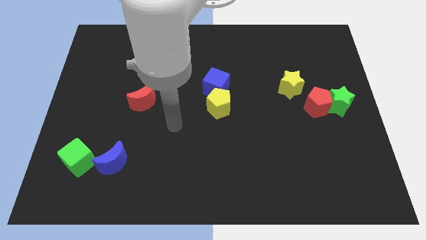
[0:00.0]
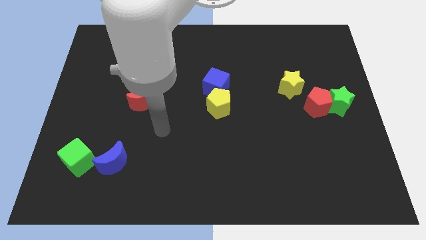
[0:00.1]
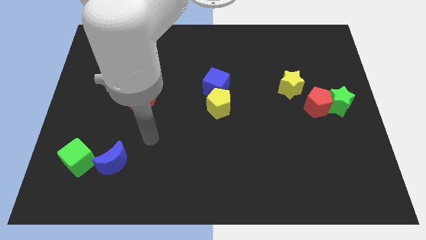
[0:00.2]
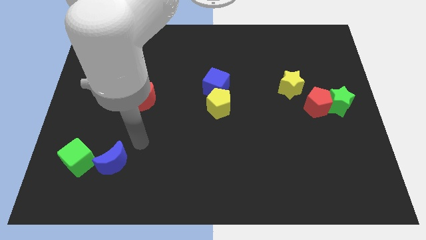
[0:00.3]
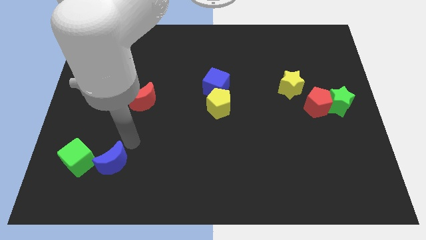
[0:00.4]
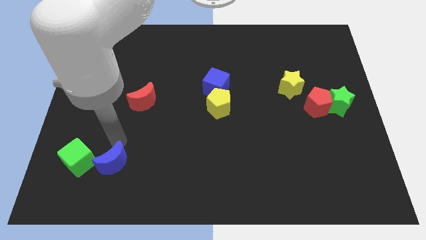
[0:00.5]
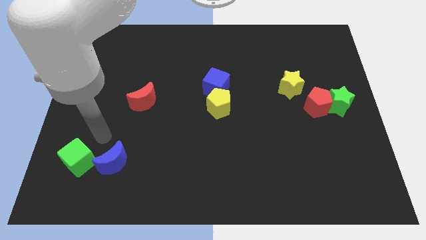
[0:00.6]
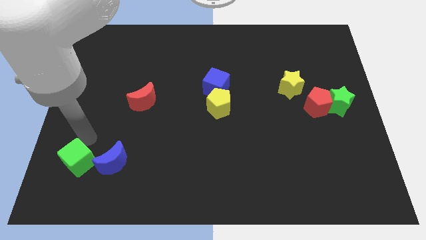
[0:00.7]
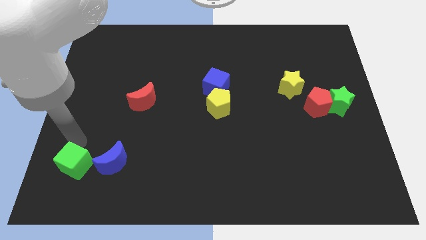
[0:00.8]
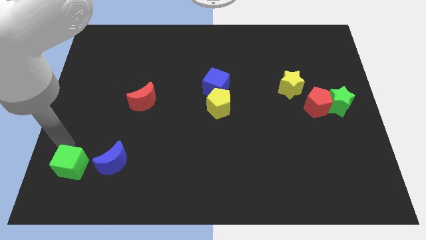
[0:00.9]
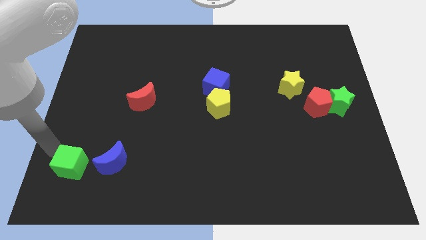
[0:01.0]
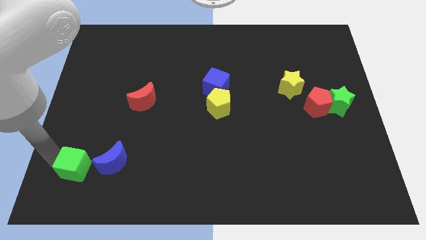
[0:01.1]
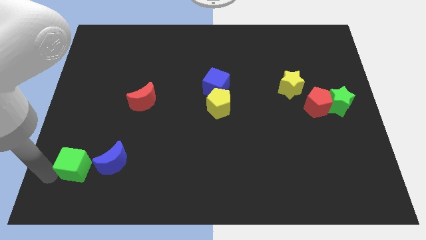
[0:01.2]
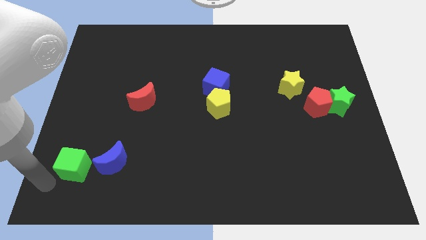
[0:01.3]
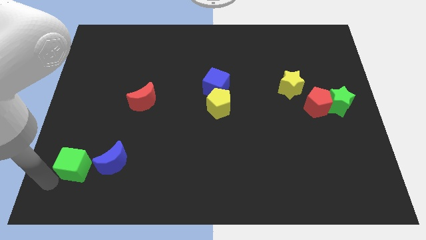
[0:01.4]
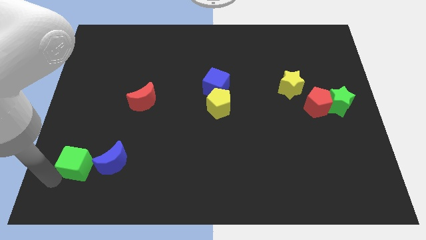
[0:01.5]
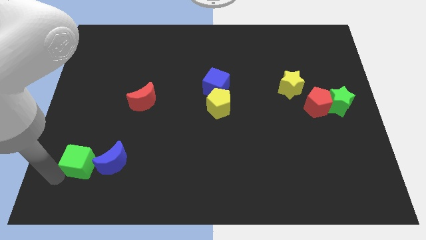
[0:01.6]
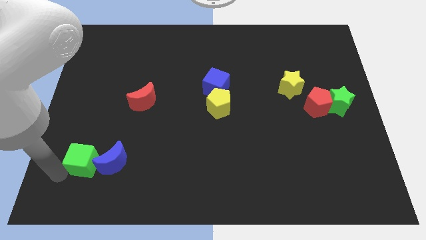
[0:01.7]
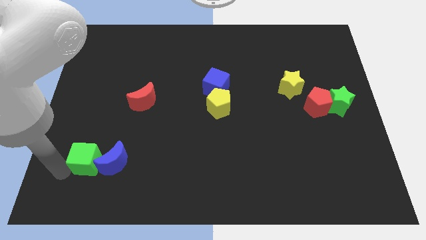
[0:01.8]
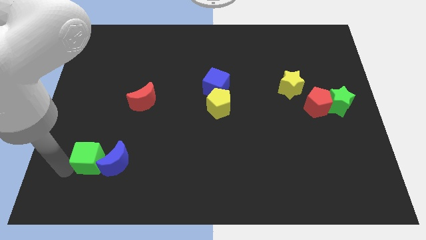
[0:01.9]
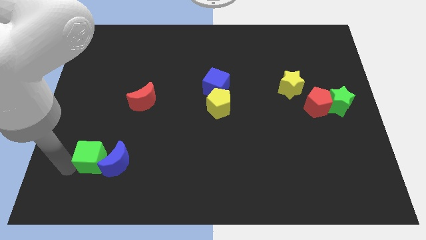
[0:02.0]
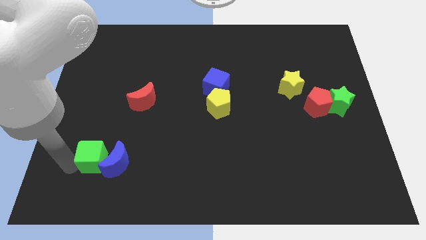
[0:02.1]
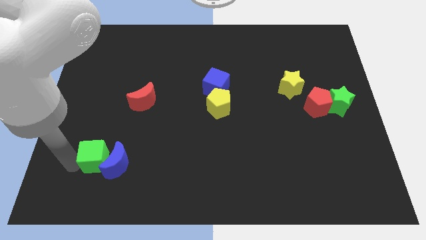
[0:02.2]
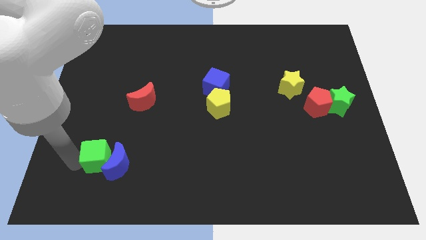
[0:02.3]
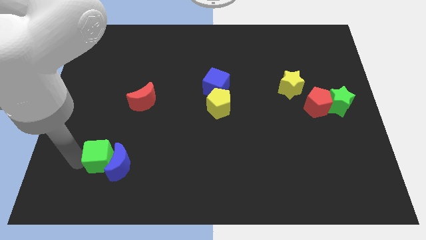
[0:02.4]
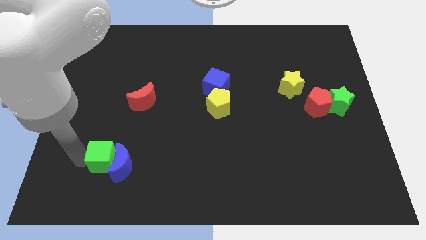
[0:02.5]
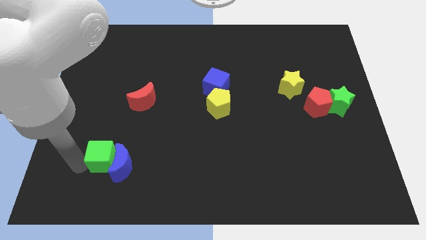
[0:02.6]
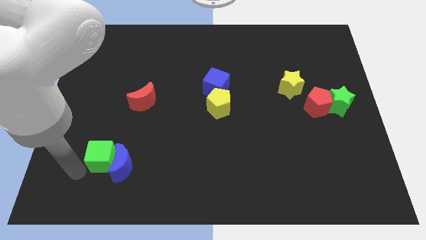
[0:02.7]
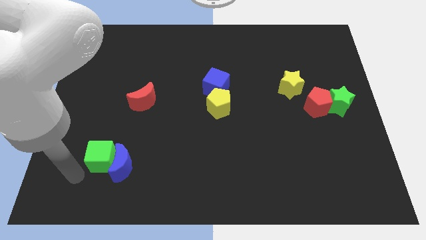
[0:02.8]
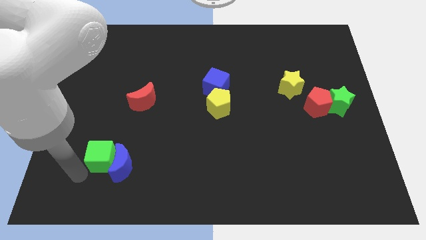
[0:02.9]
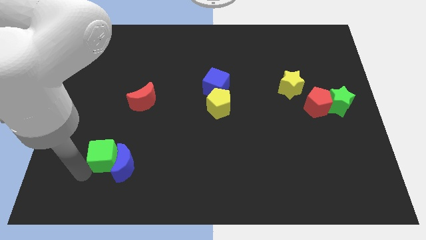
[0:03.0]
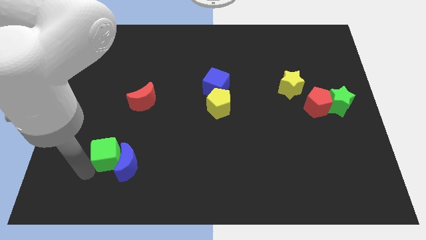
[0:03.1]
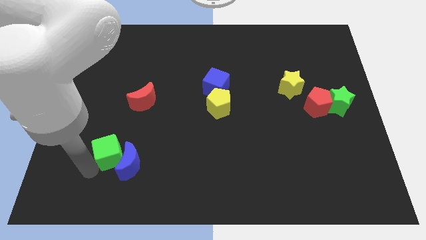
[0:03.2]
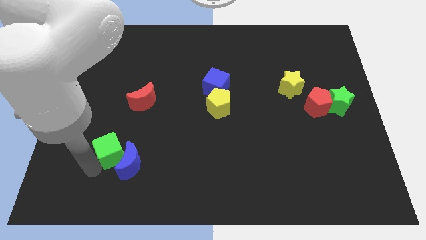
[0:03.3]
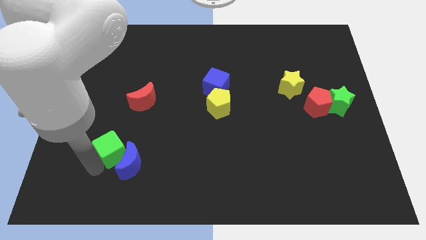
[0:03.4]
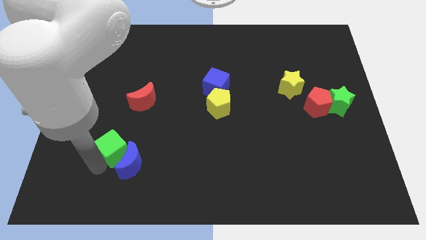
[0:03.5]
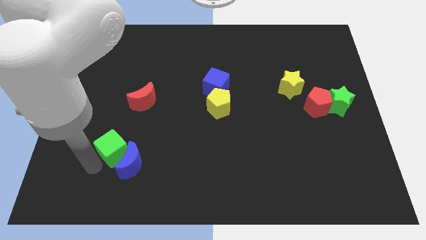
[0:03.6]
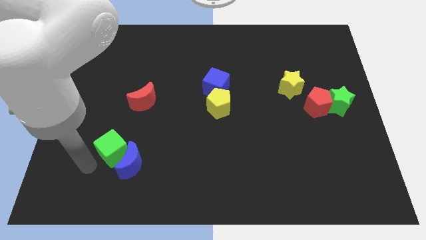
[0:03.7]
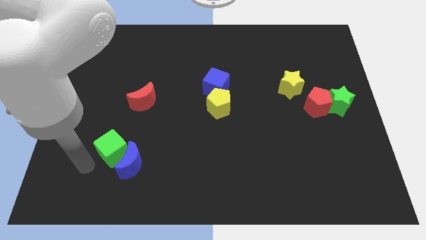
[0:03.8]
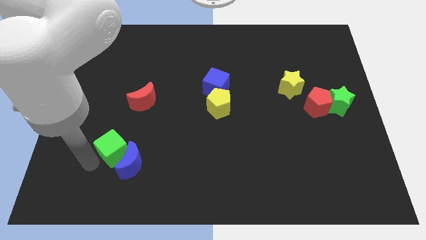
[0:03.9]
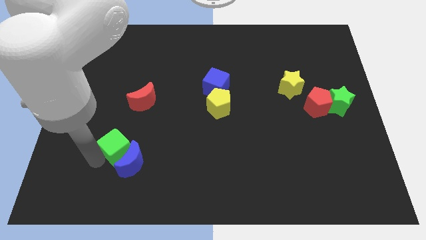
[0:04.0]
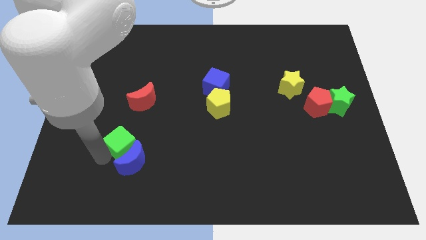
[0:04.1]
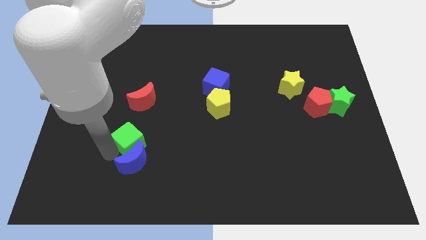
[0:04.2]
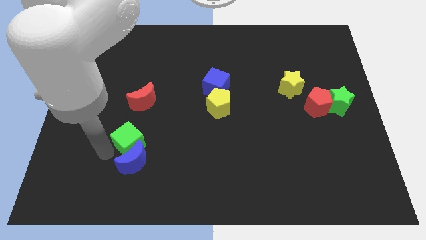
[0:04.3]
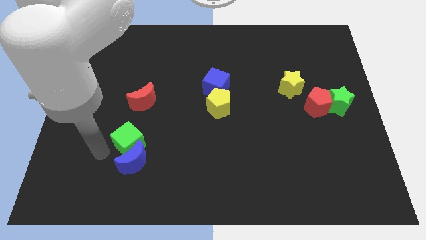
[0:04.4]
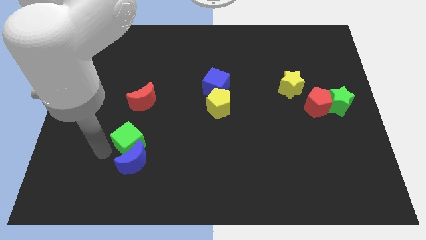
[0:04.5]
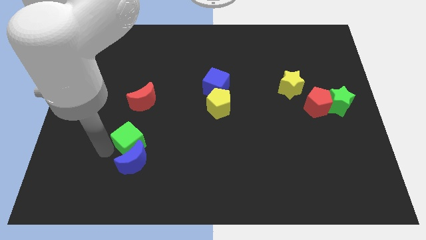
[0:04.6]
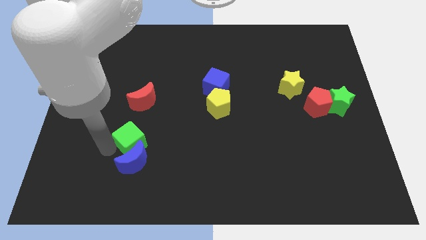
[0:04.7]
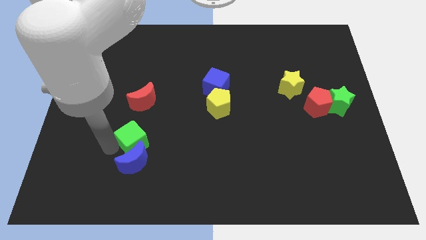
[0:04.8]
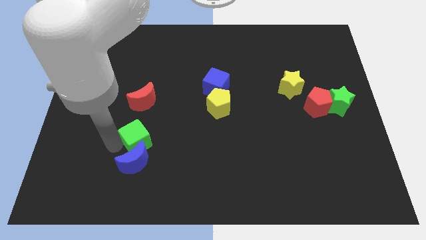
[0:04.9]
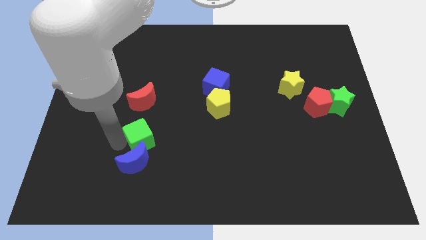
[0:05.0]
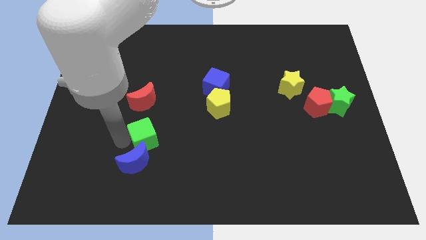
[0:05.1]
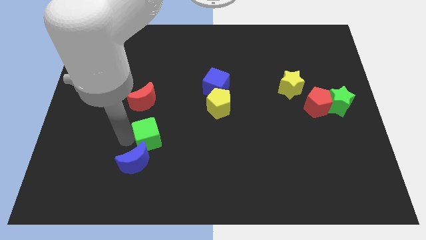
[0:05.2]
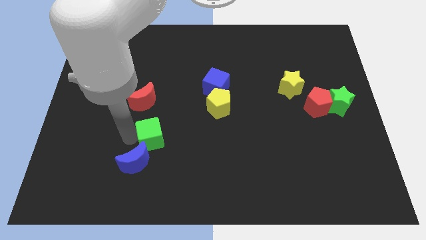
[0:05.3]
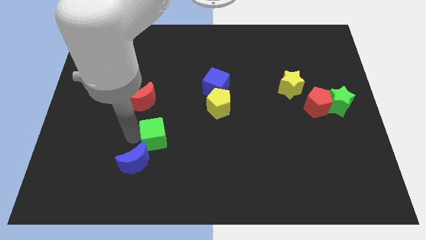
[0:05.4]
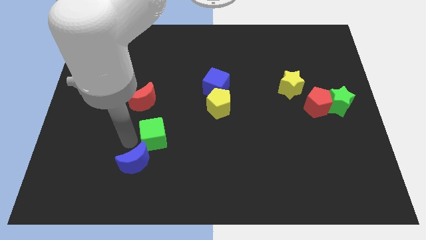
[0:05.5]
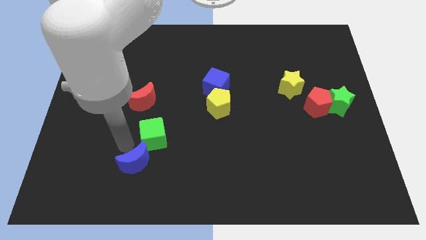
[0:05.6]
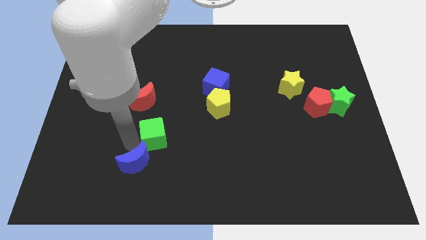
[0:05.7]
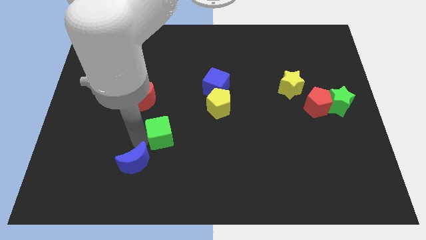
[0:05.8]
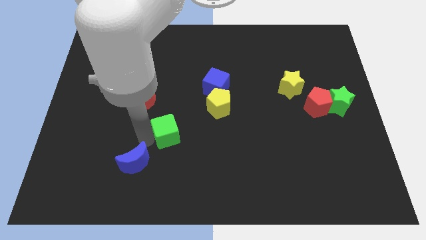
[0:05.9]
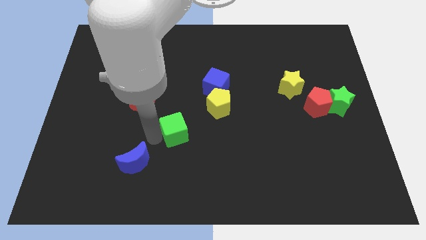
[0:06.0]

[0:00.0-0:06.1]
push the green cube to the bottom left side of the yellow pentagon

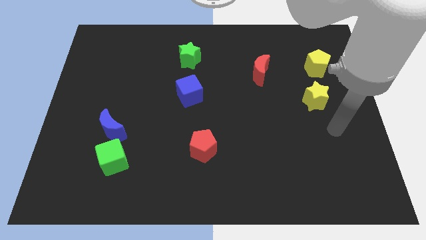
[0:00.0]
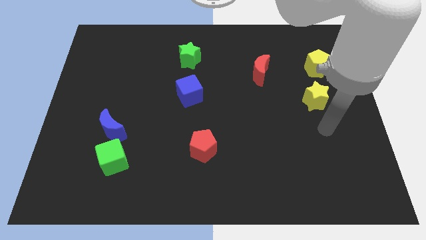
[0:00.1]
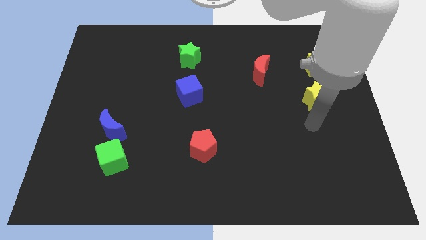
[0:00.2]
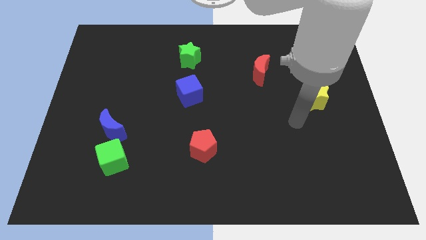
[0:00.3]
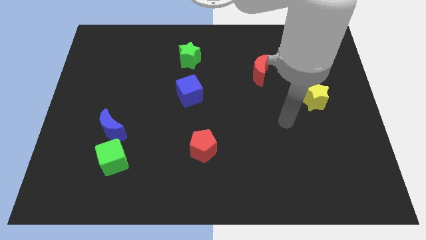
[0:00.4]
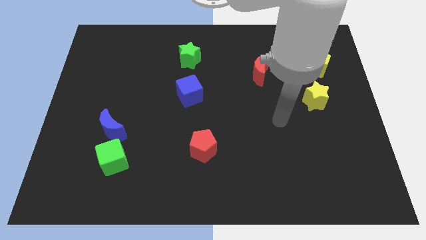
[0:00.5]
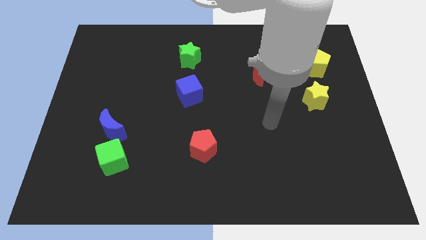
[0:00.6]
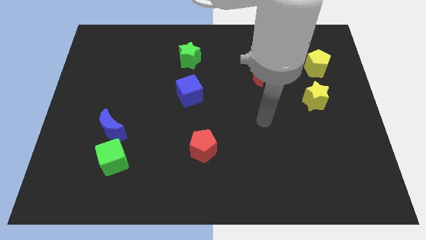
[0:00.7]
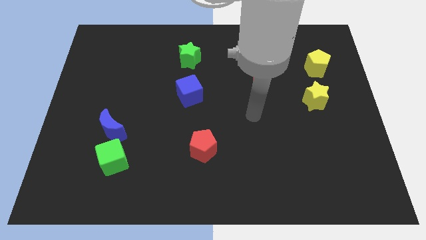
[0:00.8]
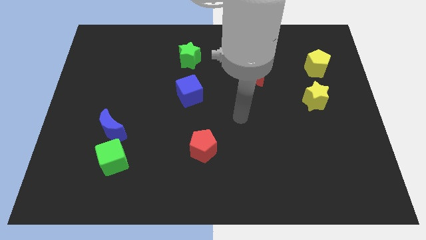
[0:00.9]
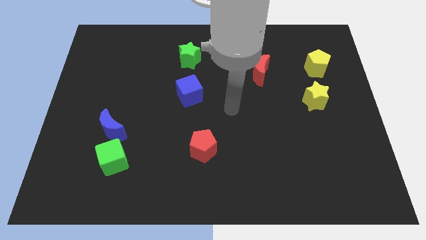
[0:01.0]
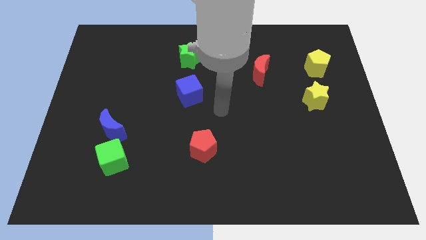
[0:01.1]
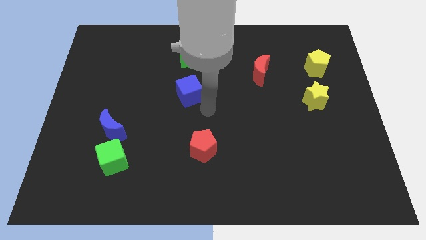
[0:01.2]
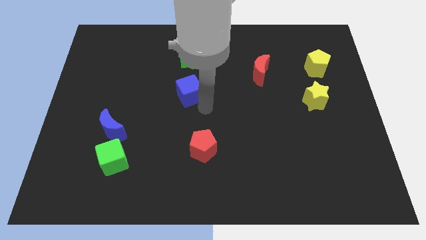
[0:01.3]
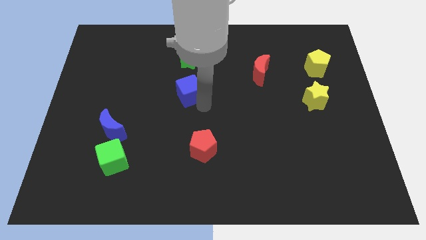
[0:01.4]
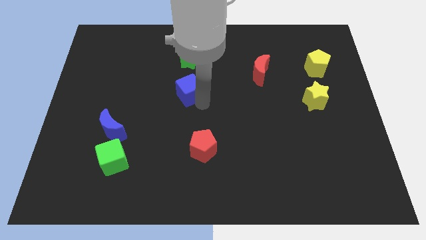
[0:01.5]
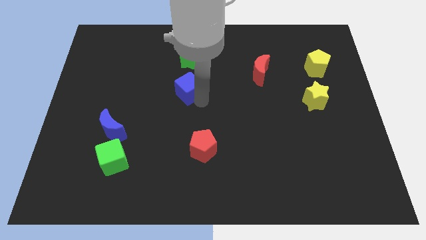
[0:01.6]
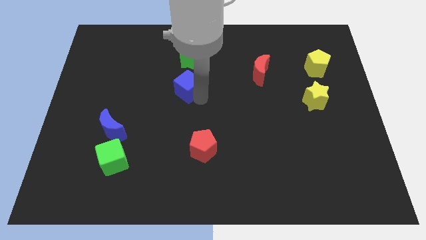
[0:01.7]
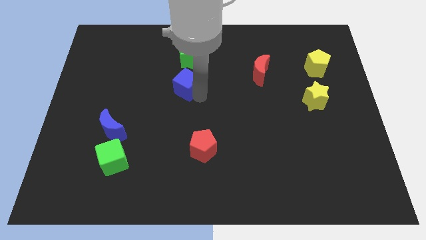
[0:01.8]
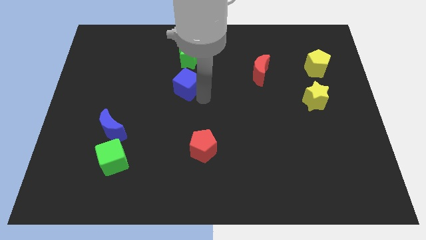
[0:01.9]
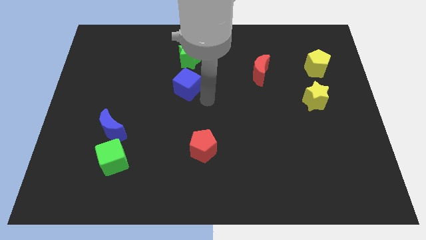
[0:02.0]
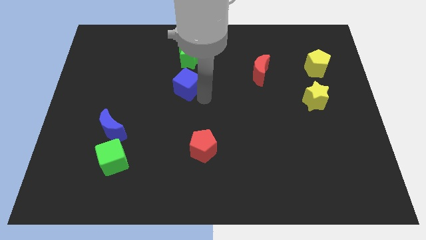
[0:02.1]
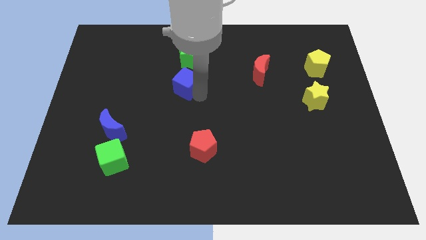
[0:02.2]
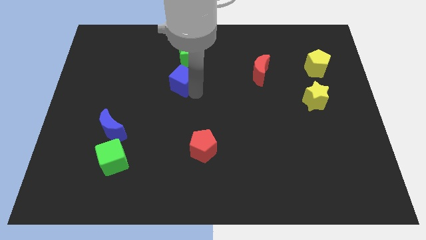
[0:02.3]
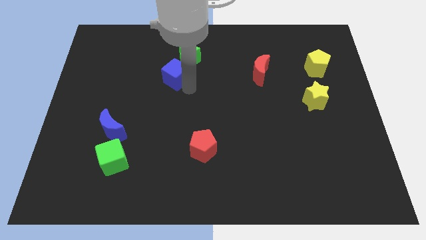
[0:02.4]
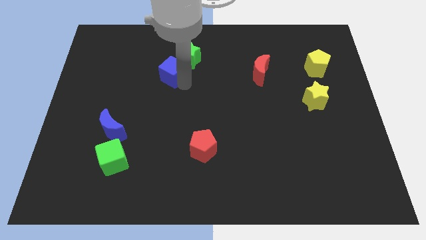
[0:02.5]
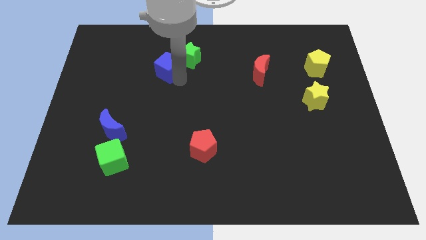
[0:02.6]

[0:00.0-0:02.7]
slide the blue cube to the left side of the green star
